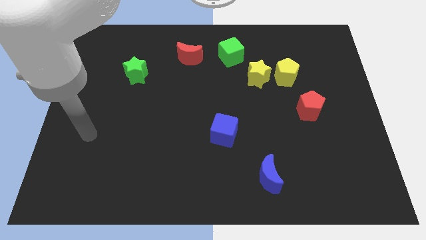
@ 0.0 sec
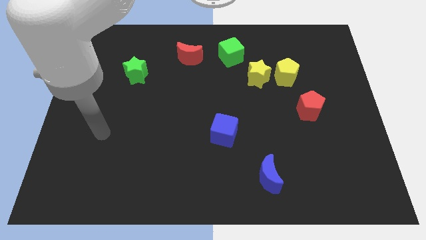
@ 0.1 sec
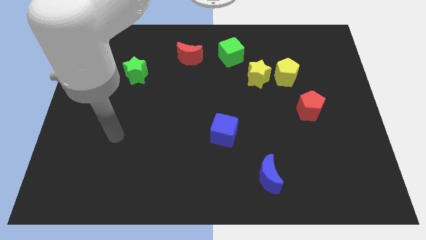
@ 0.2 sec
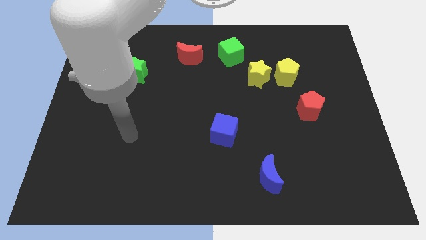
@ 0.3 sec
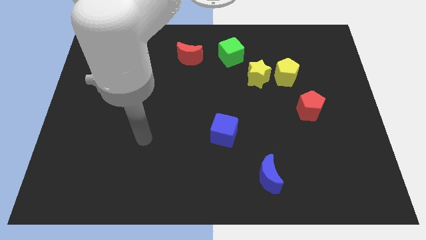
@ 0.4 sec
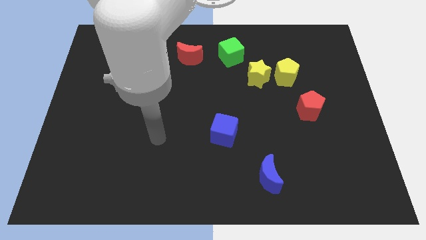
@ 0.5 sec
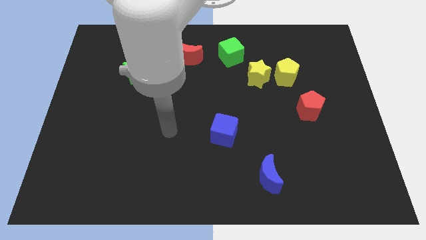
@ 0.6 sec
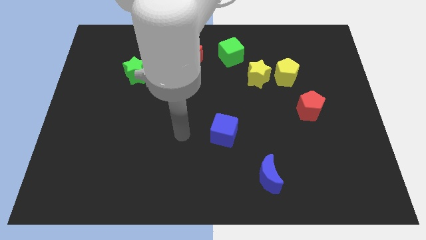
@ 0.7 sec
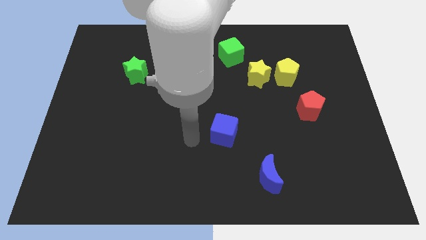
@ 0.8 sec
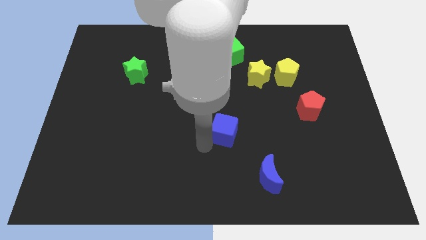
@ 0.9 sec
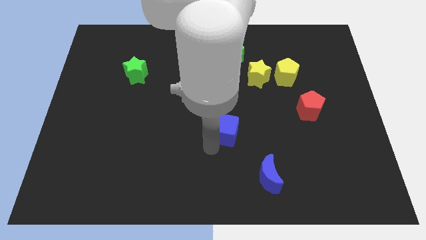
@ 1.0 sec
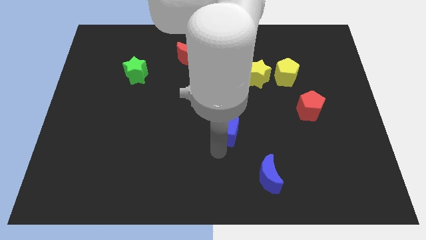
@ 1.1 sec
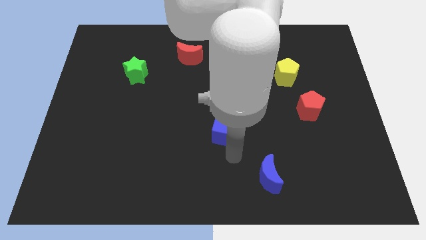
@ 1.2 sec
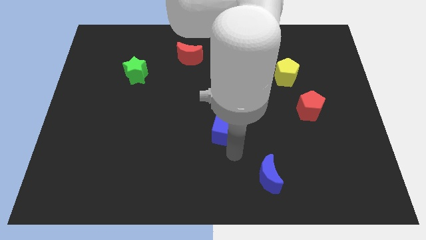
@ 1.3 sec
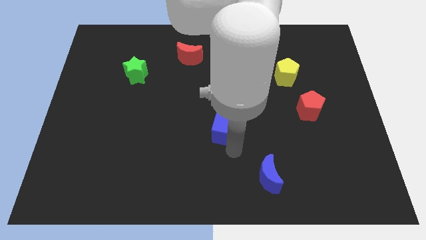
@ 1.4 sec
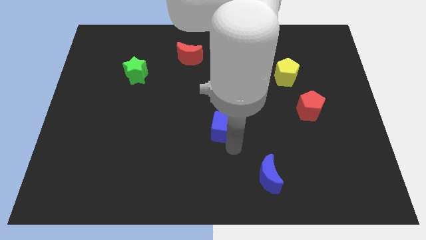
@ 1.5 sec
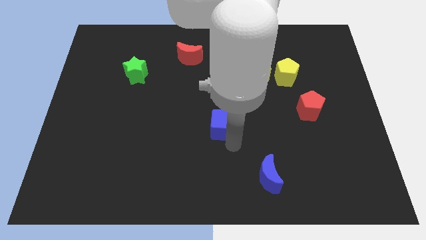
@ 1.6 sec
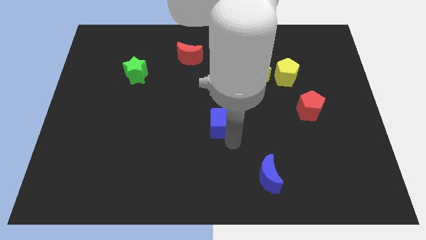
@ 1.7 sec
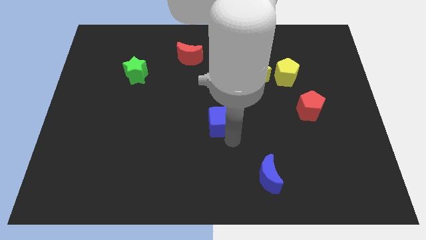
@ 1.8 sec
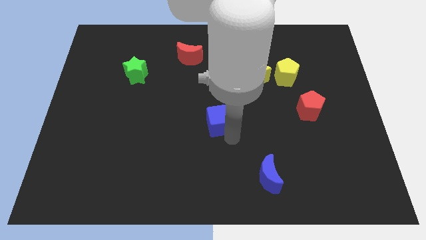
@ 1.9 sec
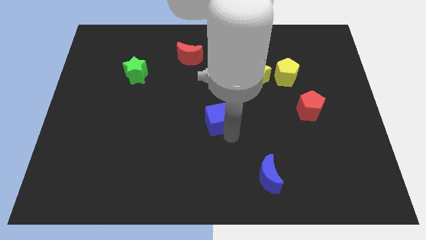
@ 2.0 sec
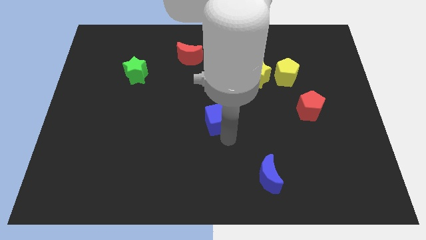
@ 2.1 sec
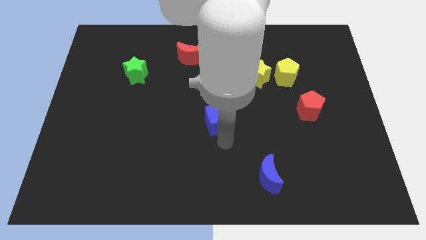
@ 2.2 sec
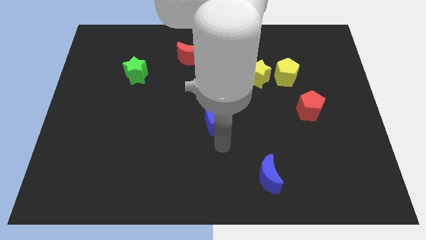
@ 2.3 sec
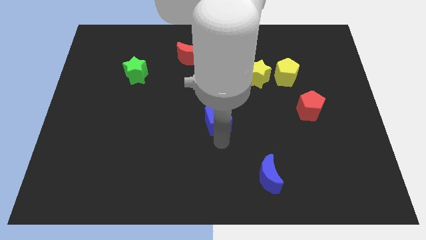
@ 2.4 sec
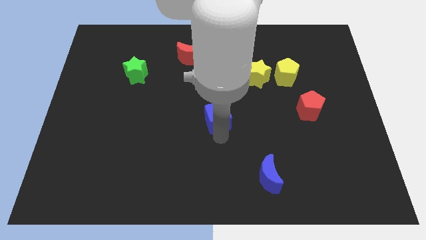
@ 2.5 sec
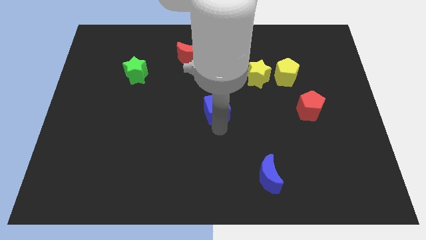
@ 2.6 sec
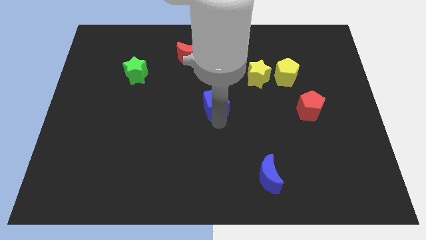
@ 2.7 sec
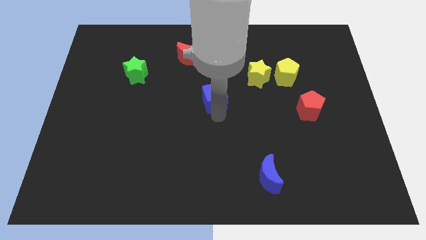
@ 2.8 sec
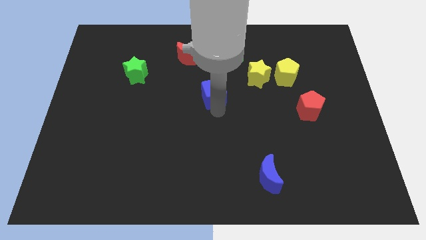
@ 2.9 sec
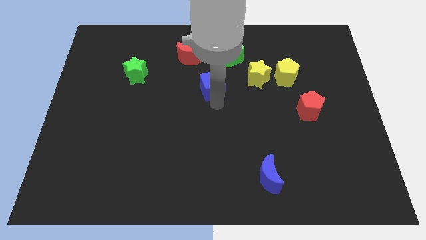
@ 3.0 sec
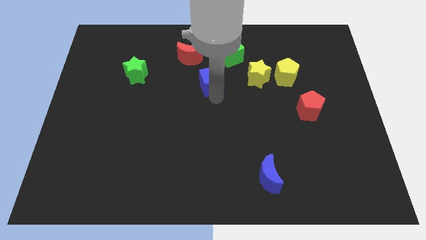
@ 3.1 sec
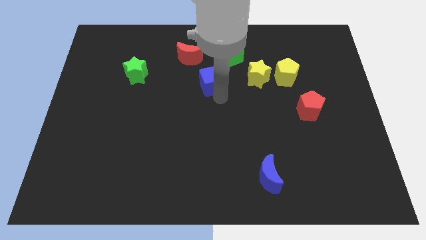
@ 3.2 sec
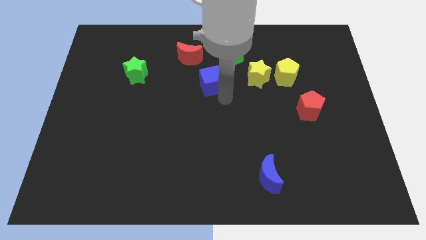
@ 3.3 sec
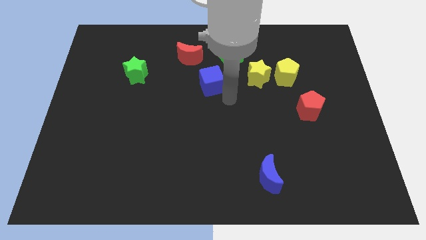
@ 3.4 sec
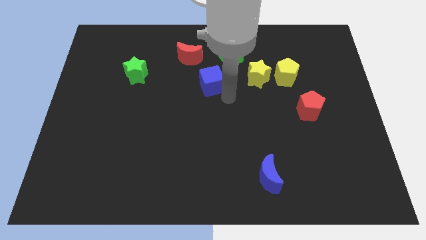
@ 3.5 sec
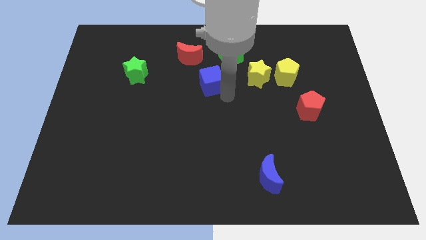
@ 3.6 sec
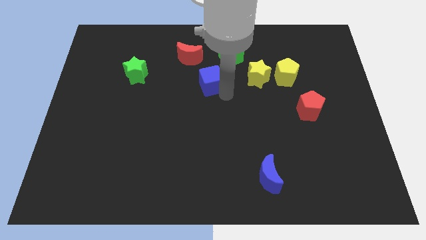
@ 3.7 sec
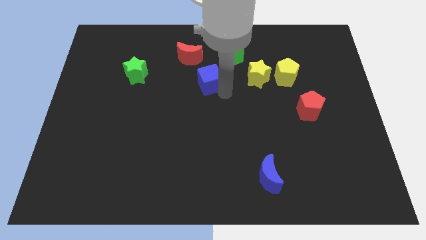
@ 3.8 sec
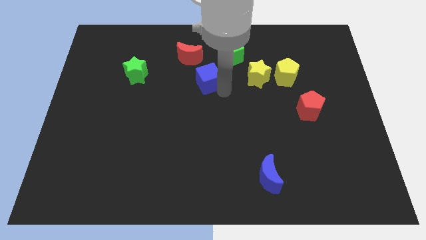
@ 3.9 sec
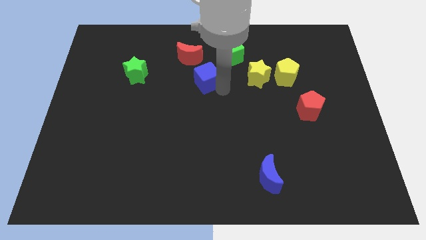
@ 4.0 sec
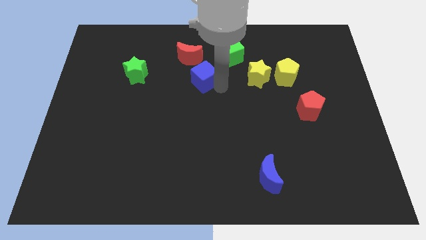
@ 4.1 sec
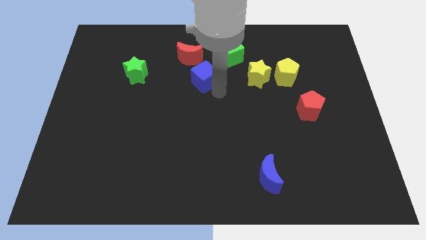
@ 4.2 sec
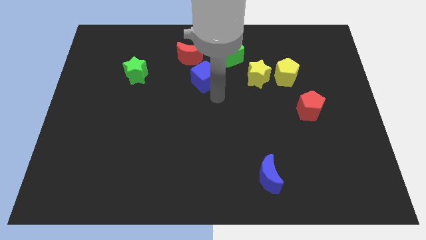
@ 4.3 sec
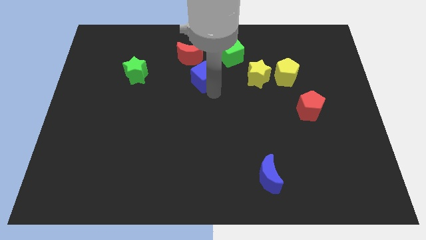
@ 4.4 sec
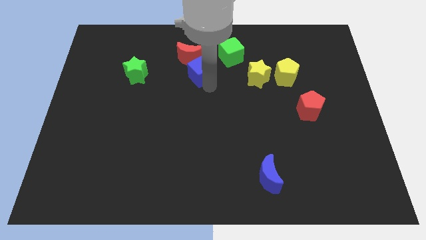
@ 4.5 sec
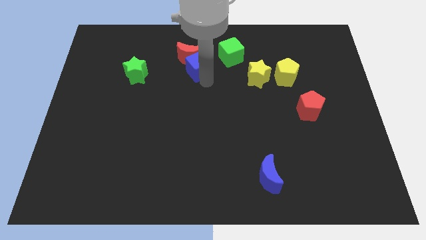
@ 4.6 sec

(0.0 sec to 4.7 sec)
slide the blue cube towards the red moon

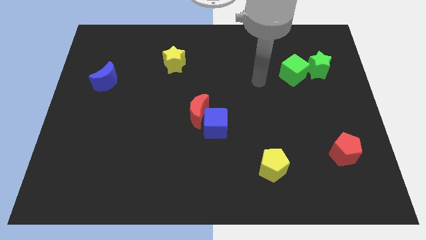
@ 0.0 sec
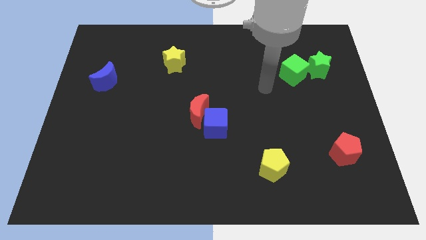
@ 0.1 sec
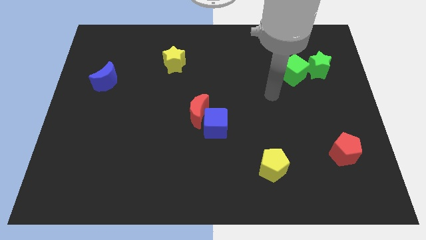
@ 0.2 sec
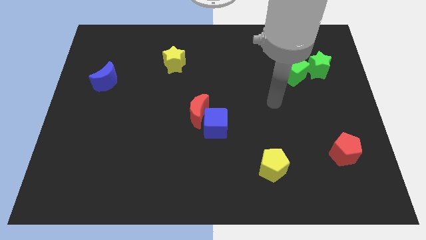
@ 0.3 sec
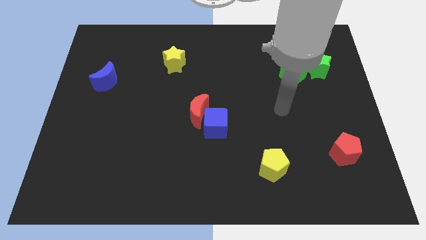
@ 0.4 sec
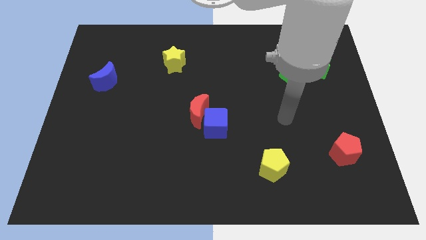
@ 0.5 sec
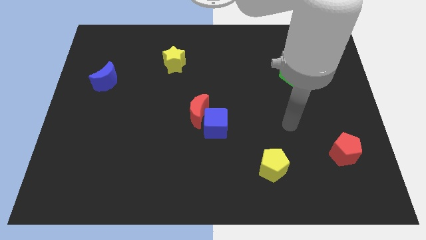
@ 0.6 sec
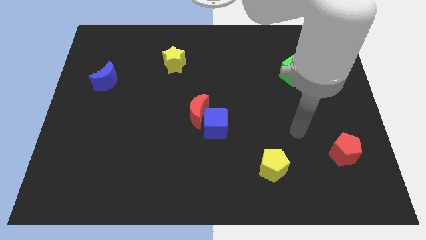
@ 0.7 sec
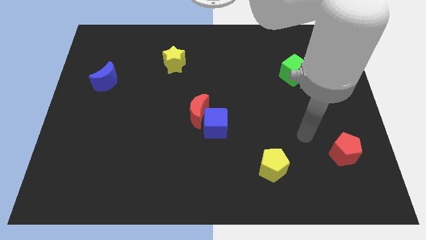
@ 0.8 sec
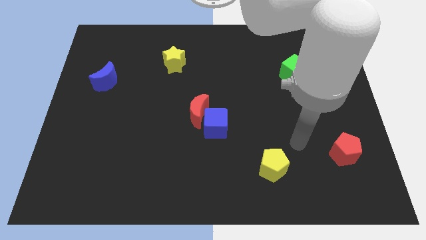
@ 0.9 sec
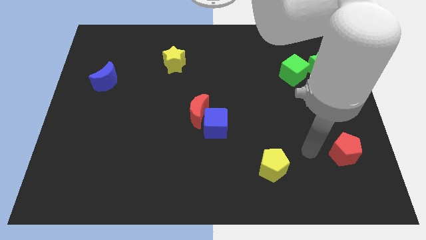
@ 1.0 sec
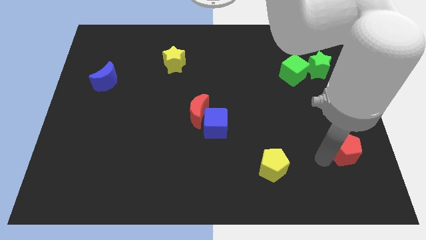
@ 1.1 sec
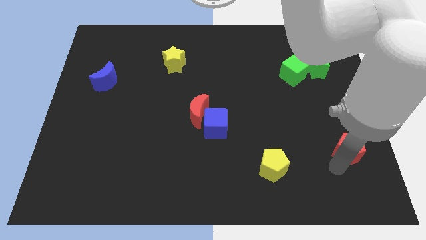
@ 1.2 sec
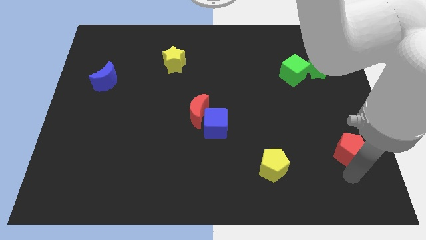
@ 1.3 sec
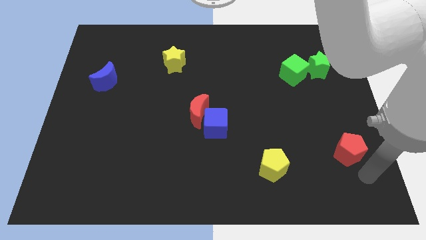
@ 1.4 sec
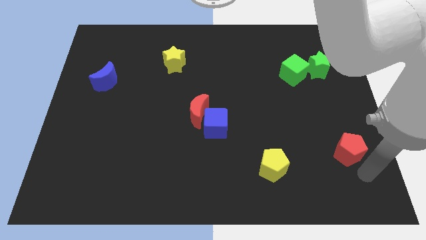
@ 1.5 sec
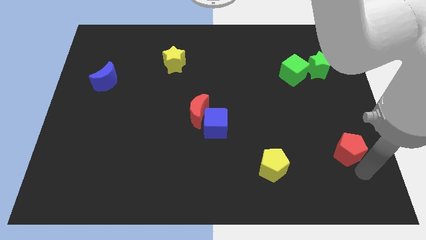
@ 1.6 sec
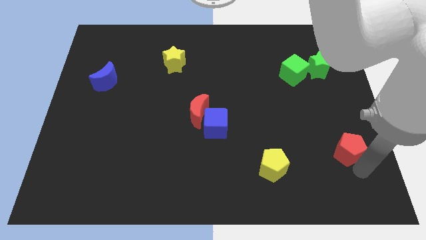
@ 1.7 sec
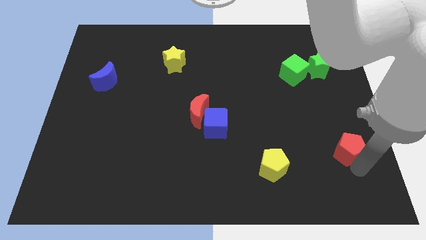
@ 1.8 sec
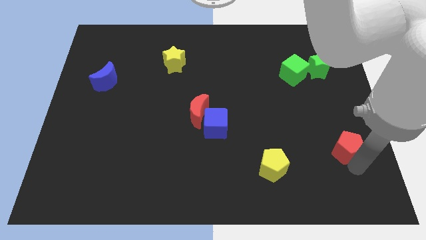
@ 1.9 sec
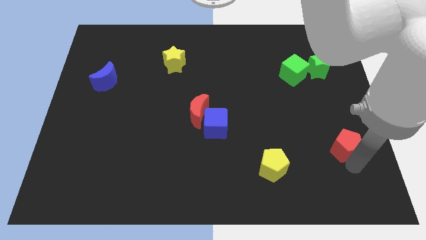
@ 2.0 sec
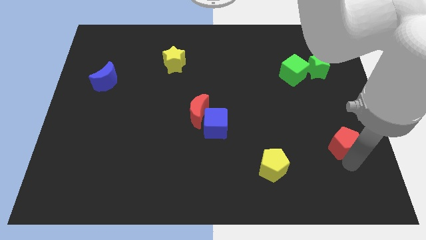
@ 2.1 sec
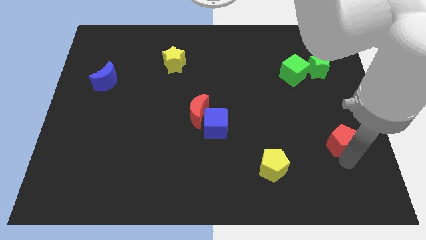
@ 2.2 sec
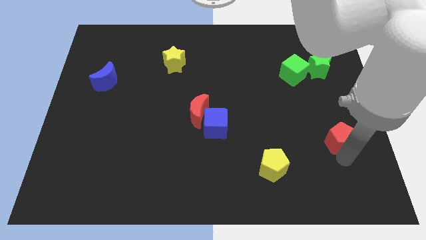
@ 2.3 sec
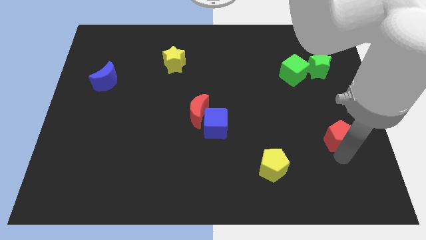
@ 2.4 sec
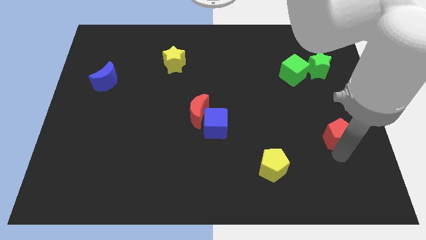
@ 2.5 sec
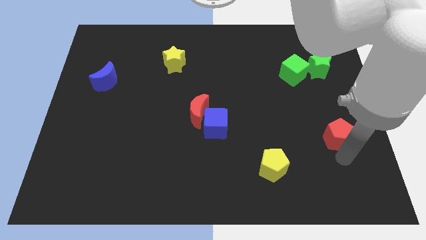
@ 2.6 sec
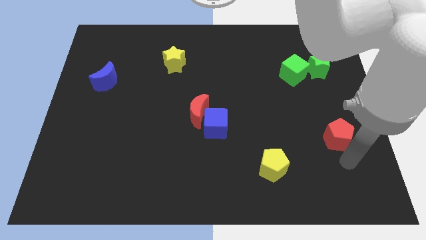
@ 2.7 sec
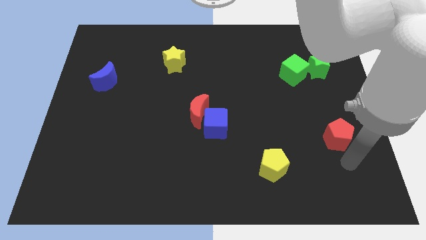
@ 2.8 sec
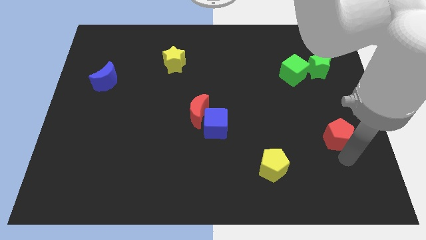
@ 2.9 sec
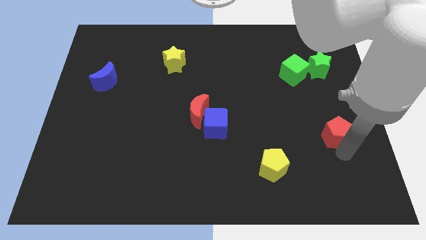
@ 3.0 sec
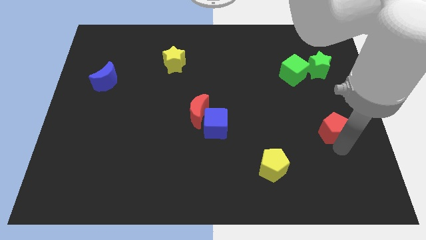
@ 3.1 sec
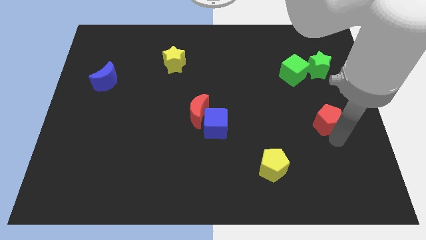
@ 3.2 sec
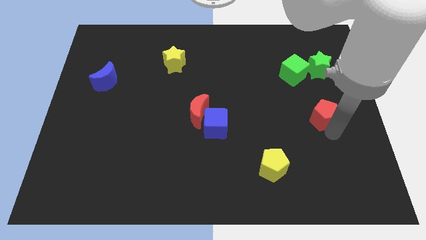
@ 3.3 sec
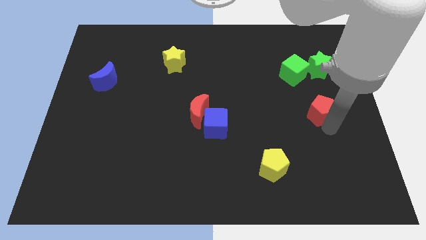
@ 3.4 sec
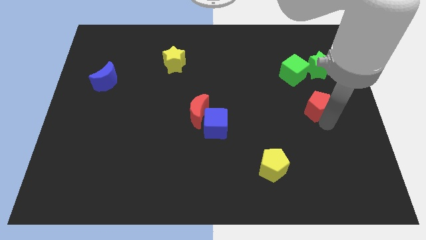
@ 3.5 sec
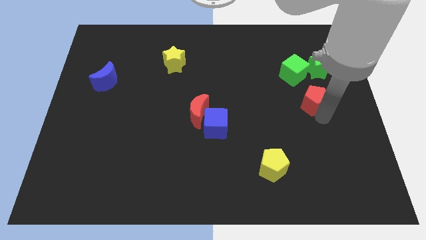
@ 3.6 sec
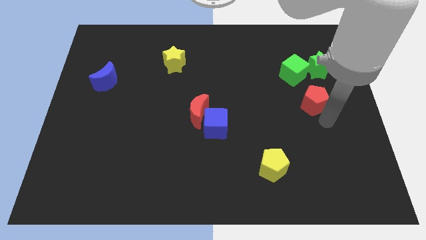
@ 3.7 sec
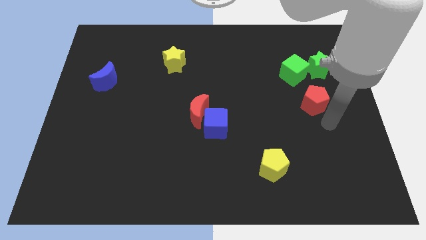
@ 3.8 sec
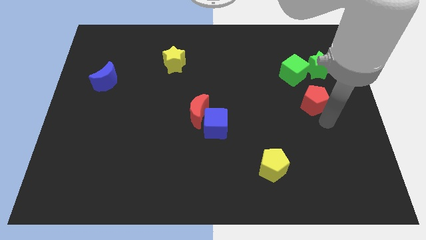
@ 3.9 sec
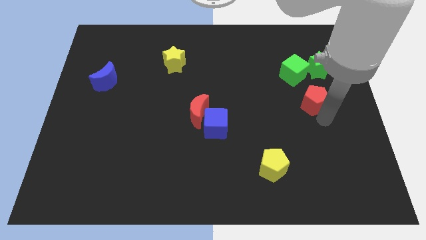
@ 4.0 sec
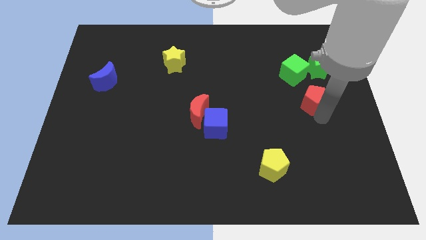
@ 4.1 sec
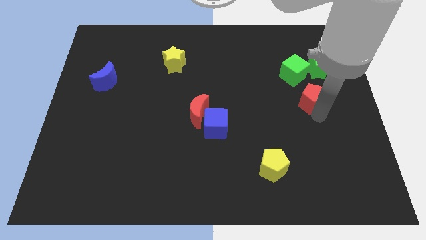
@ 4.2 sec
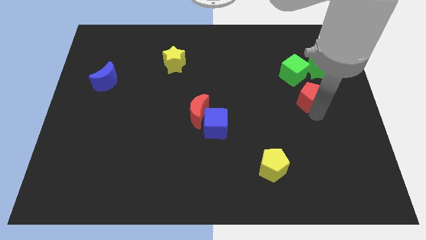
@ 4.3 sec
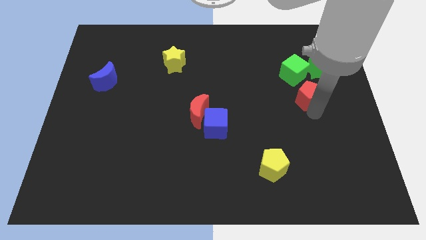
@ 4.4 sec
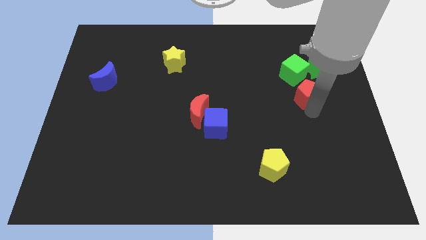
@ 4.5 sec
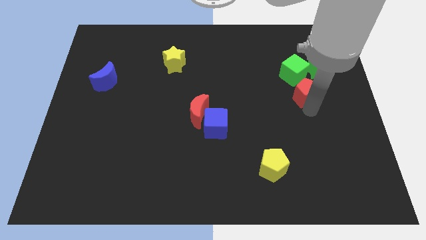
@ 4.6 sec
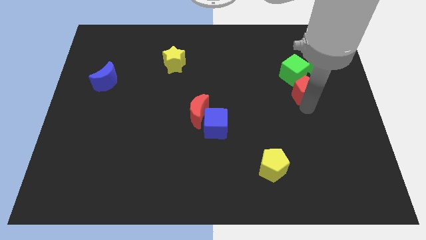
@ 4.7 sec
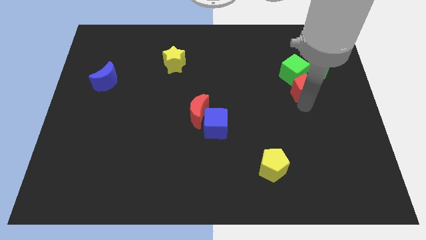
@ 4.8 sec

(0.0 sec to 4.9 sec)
push the red pentagon to the green cube
